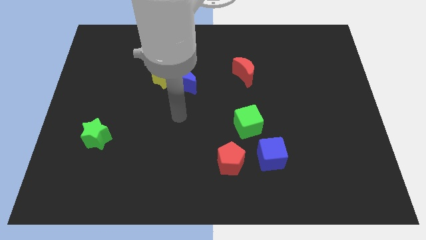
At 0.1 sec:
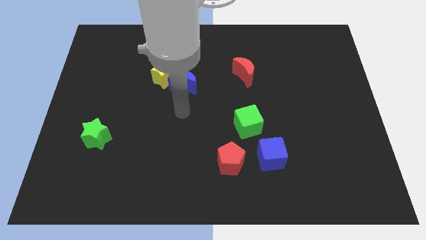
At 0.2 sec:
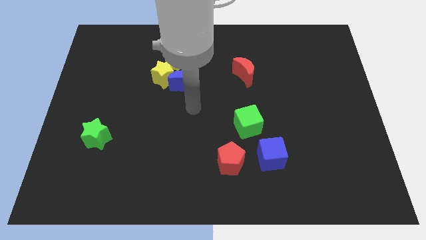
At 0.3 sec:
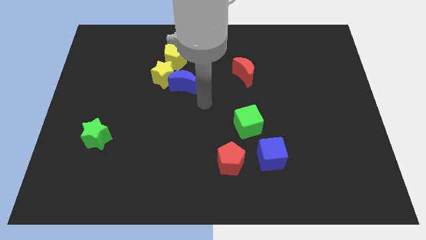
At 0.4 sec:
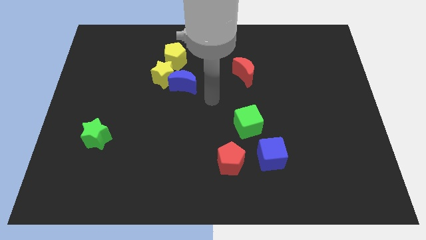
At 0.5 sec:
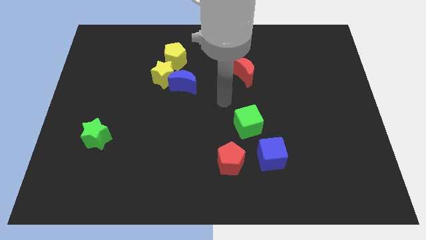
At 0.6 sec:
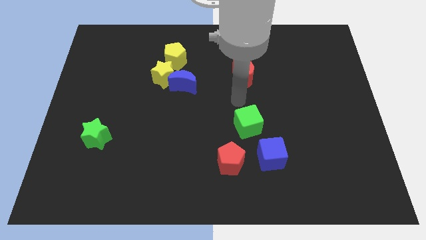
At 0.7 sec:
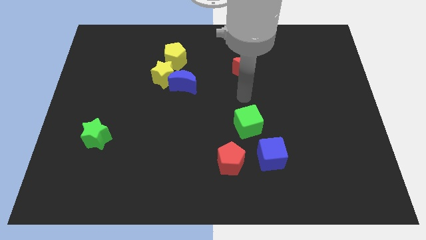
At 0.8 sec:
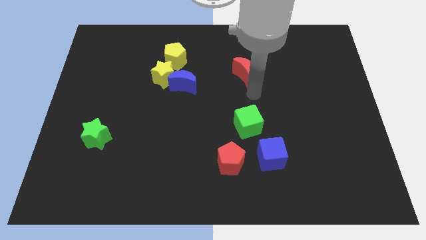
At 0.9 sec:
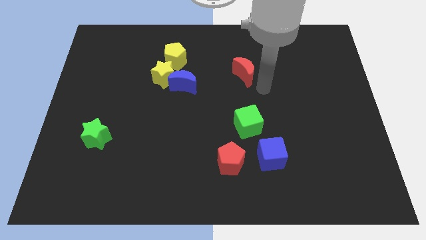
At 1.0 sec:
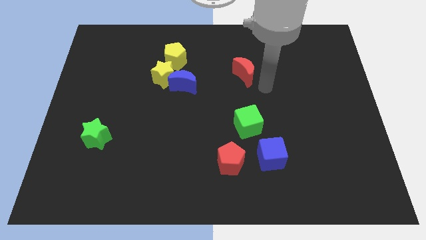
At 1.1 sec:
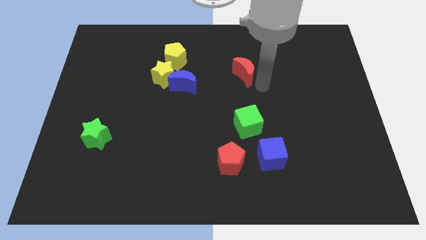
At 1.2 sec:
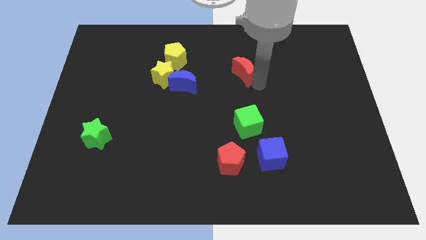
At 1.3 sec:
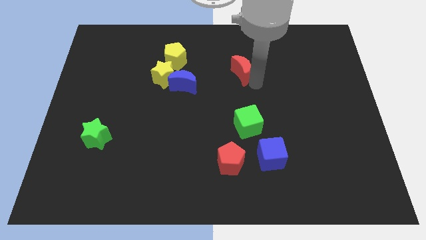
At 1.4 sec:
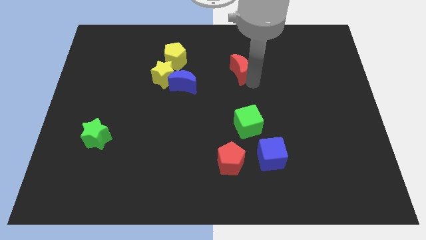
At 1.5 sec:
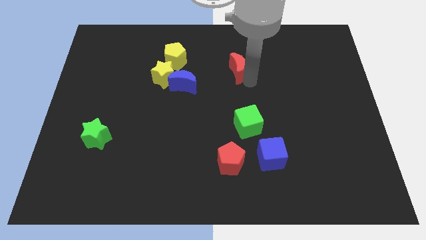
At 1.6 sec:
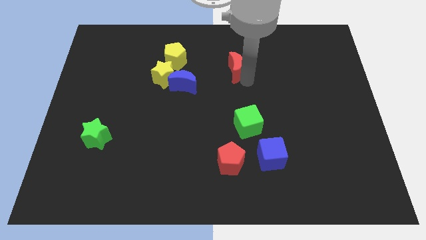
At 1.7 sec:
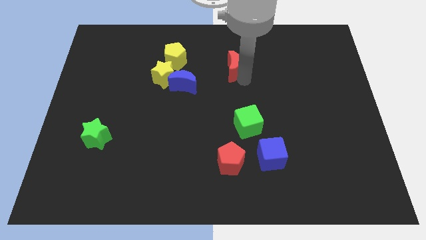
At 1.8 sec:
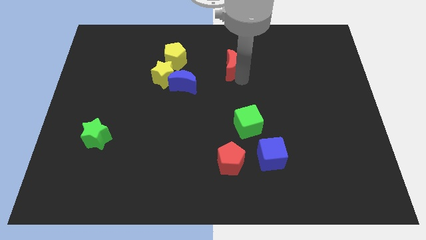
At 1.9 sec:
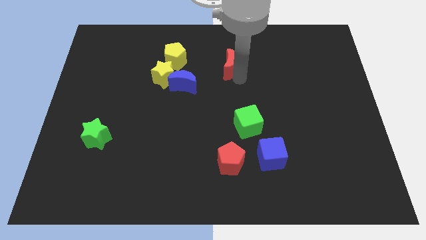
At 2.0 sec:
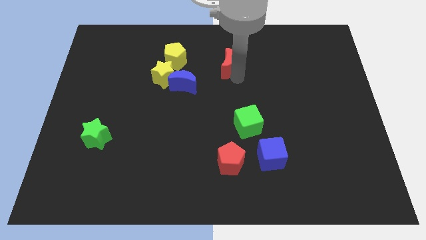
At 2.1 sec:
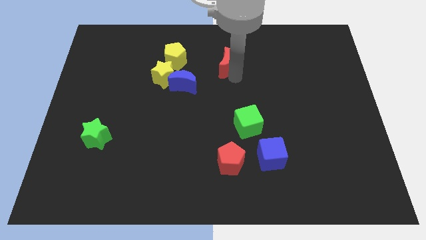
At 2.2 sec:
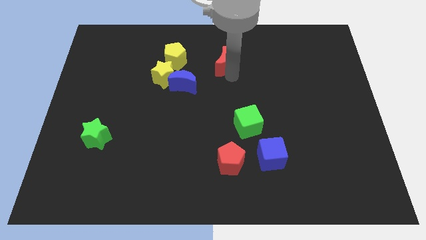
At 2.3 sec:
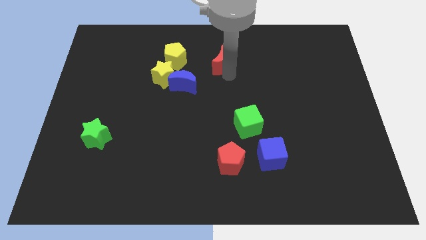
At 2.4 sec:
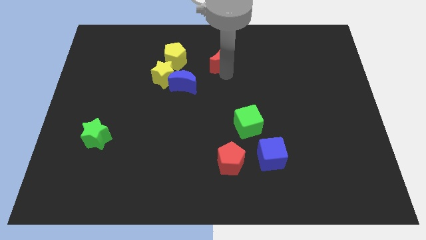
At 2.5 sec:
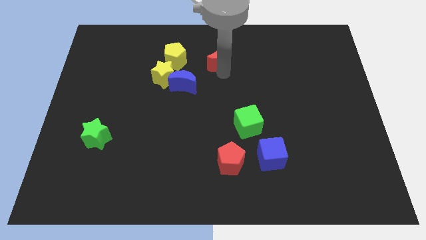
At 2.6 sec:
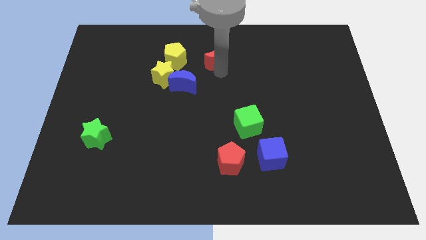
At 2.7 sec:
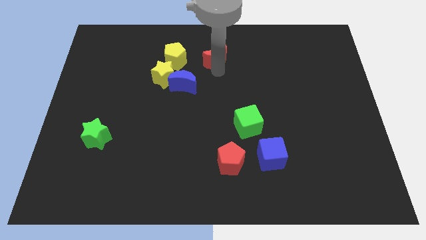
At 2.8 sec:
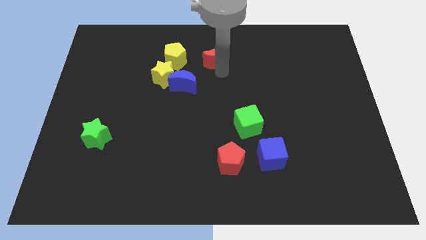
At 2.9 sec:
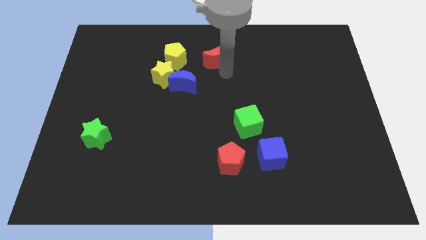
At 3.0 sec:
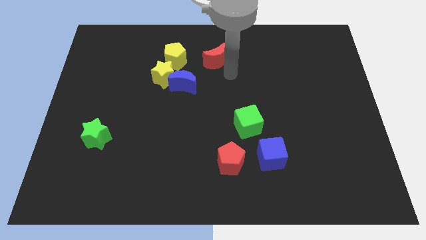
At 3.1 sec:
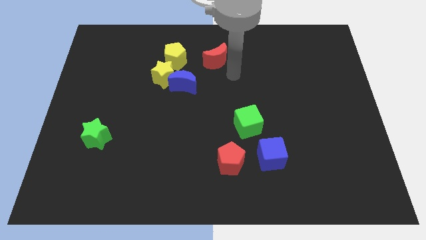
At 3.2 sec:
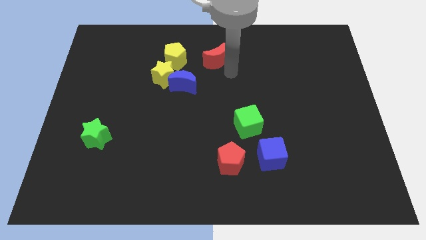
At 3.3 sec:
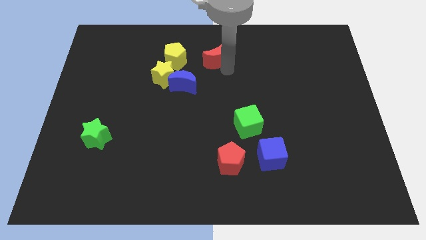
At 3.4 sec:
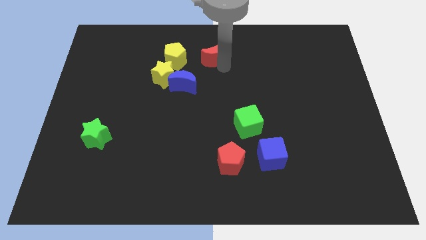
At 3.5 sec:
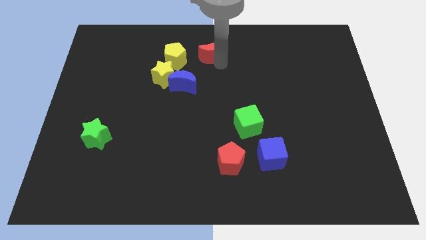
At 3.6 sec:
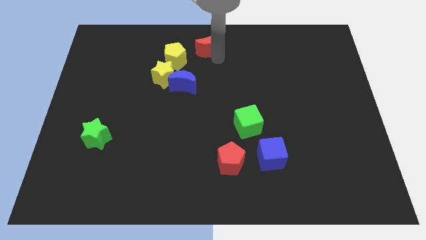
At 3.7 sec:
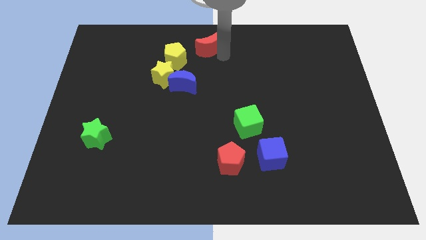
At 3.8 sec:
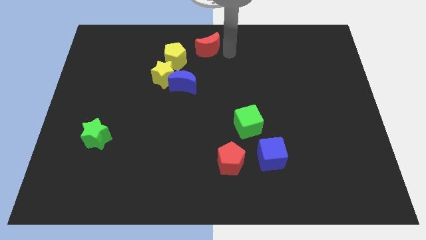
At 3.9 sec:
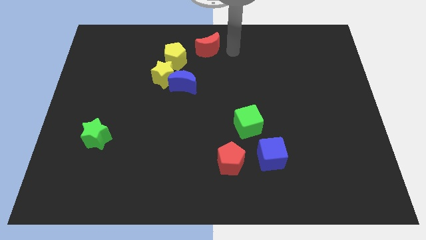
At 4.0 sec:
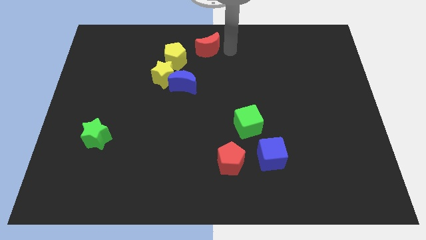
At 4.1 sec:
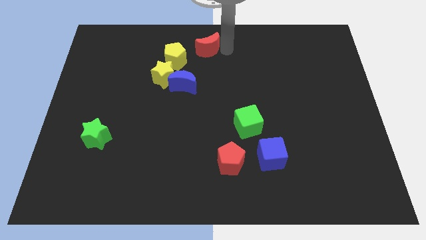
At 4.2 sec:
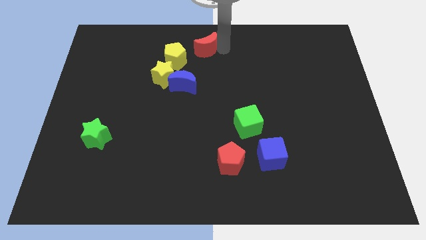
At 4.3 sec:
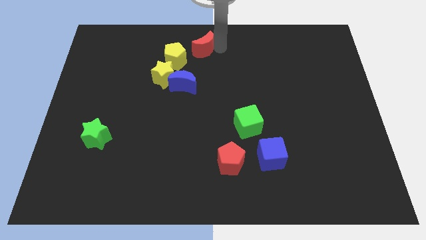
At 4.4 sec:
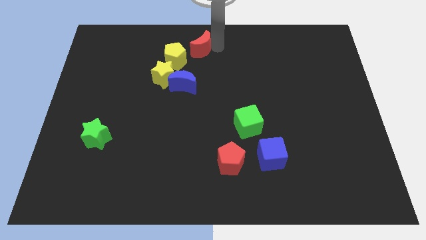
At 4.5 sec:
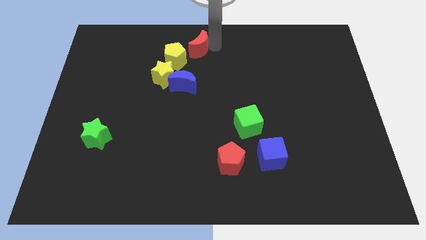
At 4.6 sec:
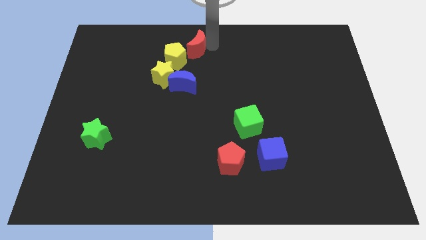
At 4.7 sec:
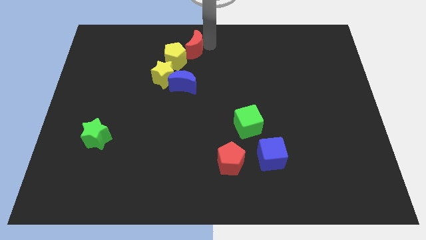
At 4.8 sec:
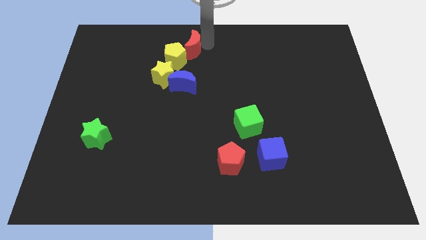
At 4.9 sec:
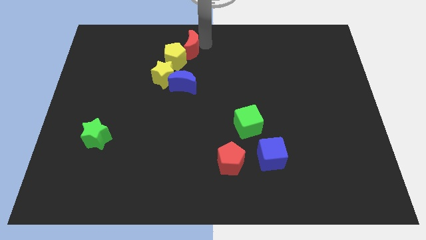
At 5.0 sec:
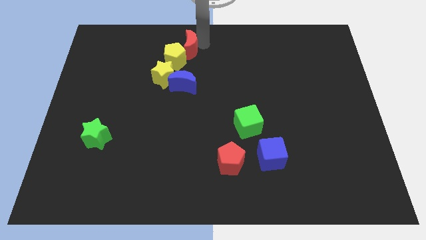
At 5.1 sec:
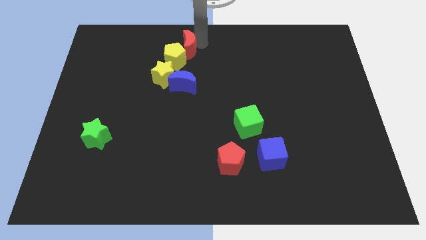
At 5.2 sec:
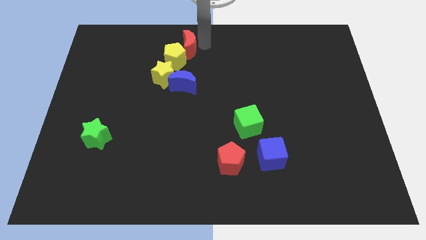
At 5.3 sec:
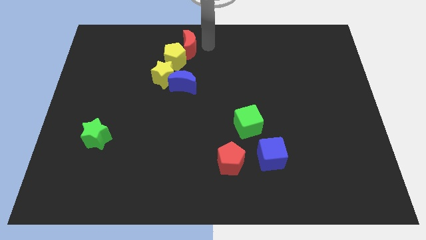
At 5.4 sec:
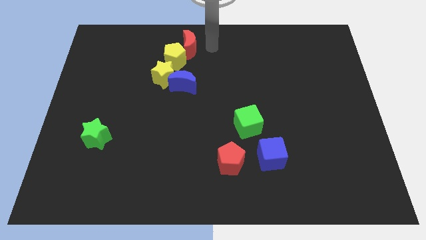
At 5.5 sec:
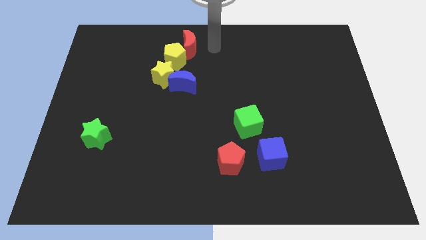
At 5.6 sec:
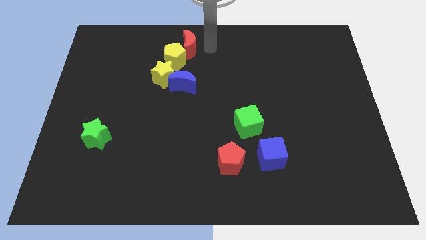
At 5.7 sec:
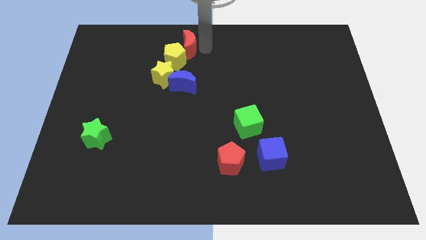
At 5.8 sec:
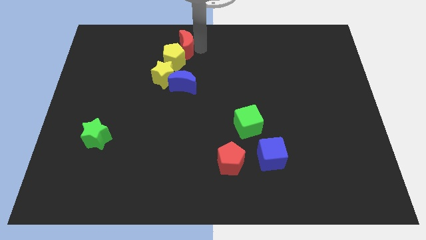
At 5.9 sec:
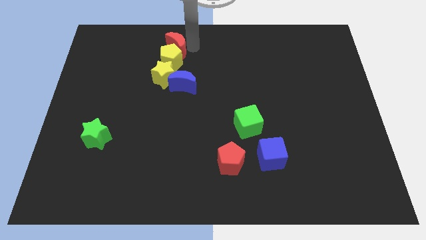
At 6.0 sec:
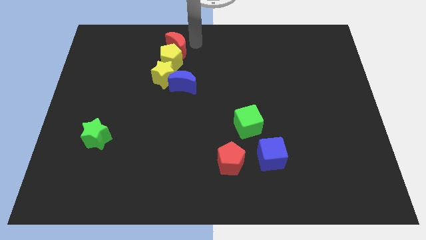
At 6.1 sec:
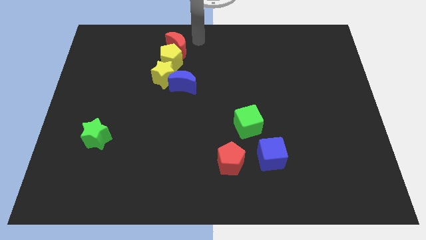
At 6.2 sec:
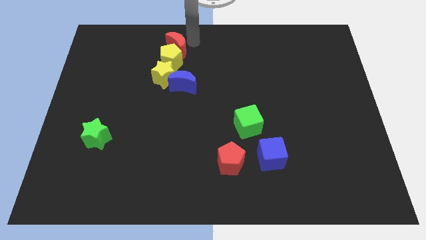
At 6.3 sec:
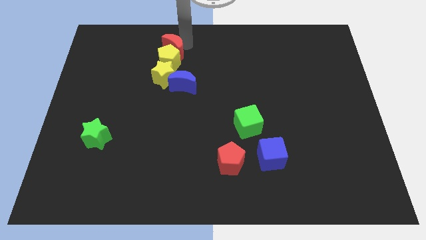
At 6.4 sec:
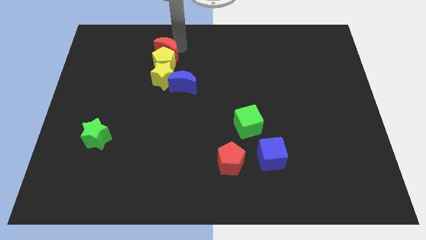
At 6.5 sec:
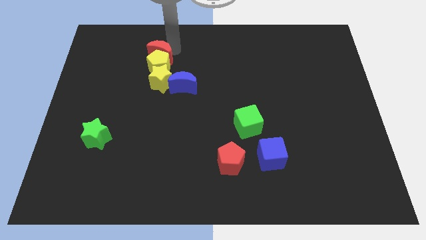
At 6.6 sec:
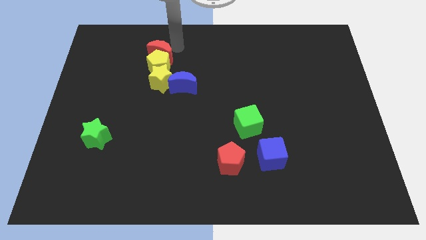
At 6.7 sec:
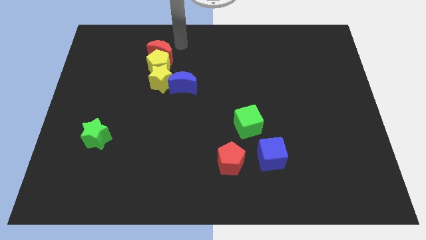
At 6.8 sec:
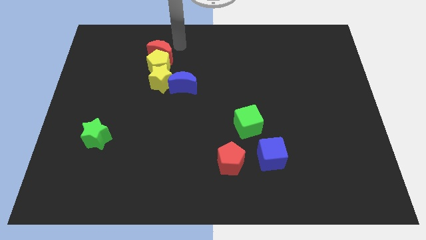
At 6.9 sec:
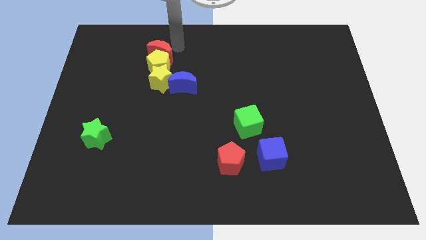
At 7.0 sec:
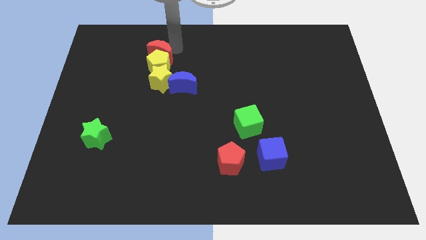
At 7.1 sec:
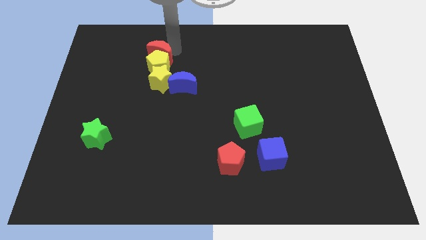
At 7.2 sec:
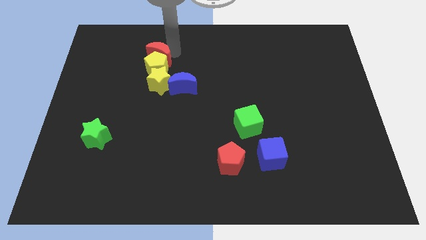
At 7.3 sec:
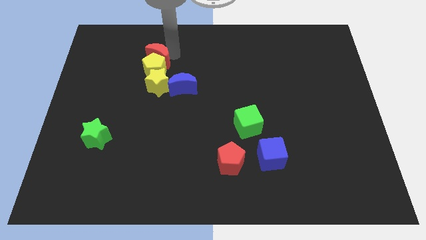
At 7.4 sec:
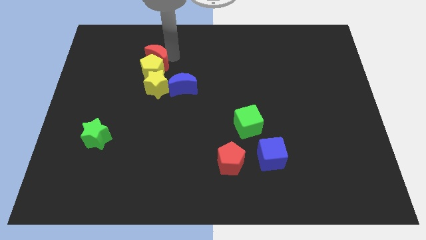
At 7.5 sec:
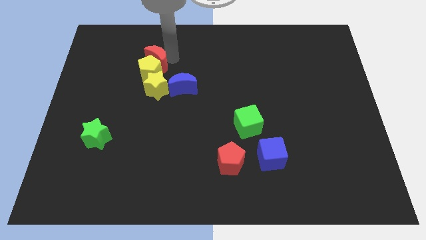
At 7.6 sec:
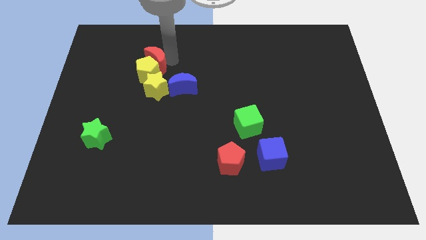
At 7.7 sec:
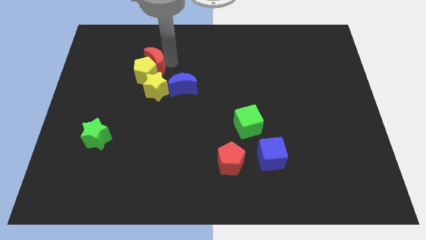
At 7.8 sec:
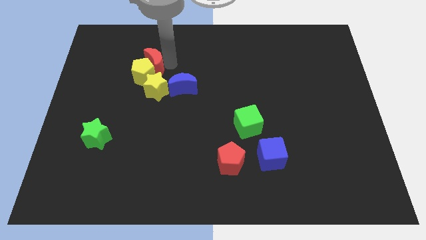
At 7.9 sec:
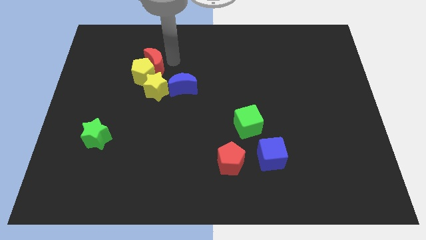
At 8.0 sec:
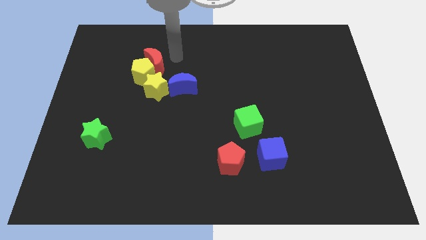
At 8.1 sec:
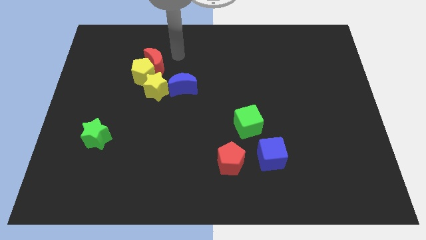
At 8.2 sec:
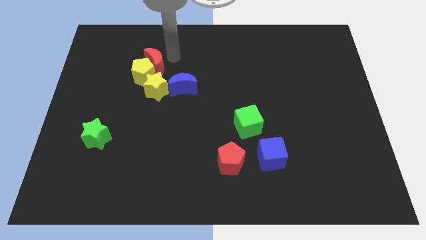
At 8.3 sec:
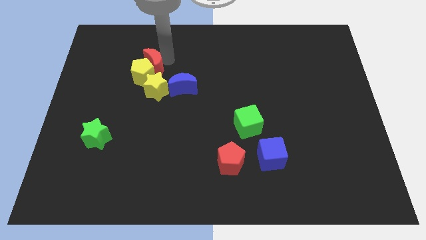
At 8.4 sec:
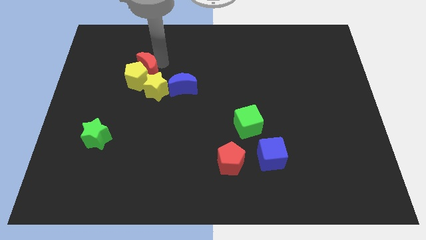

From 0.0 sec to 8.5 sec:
put the red moon to the top left side of the yellow star
